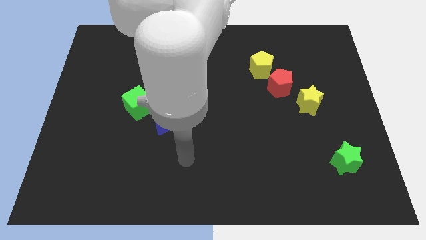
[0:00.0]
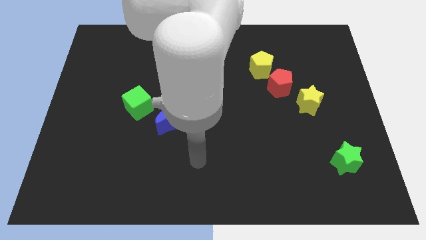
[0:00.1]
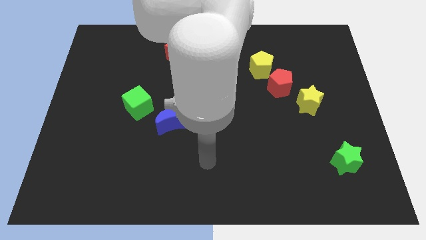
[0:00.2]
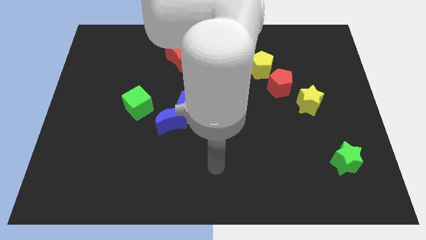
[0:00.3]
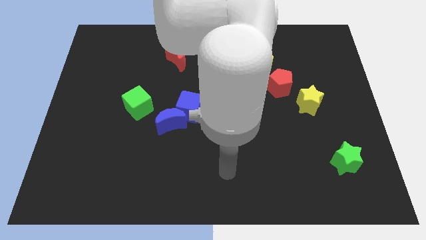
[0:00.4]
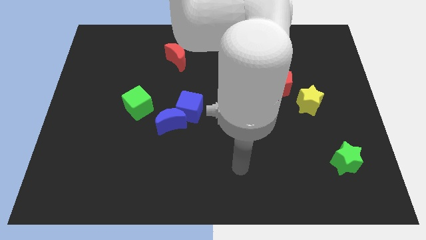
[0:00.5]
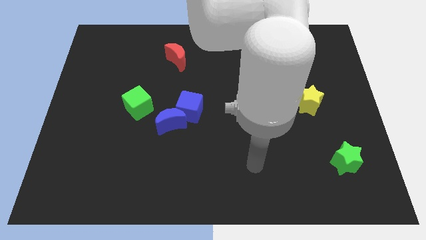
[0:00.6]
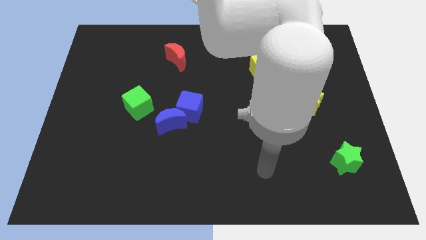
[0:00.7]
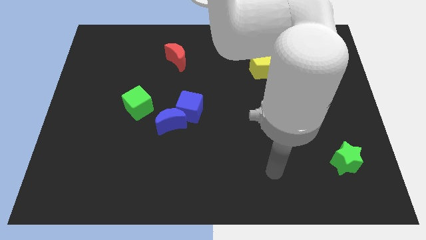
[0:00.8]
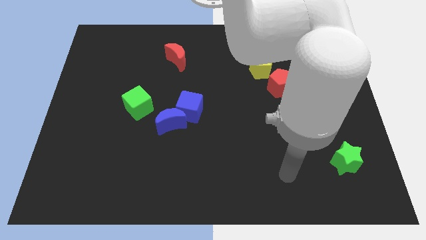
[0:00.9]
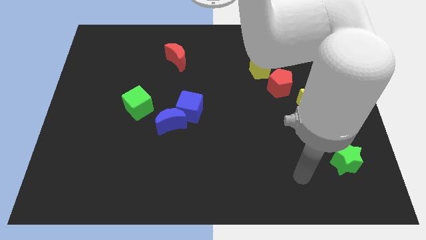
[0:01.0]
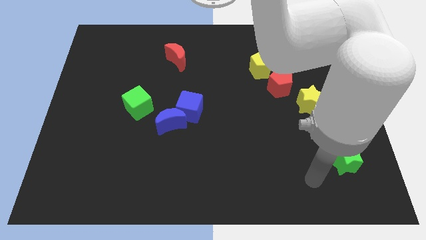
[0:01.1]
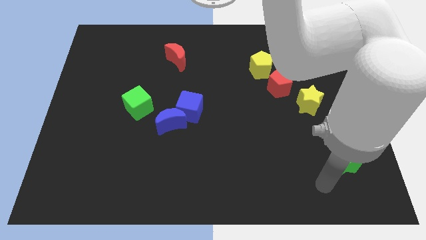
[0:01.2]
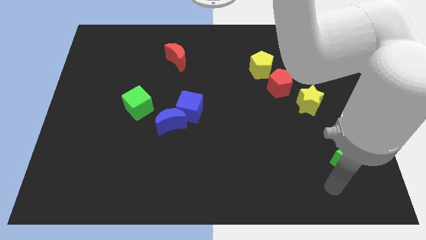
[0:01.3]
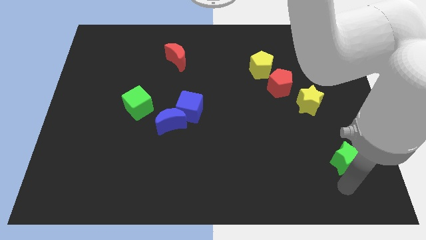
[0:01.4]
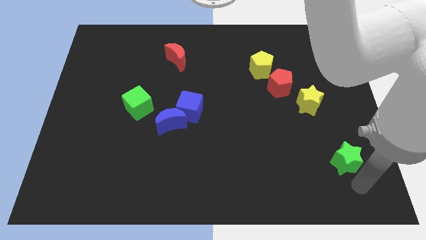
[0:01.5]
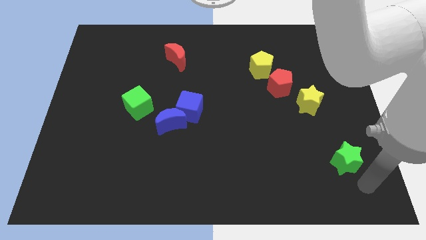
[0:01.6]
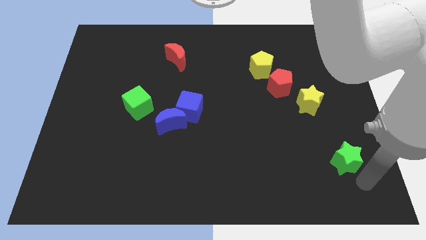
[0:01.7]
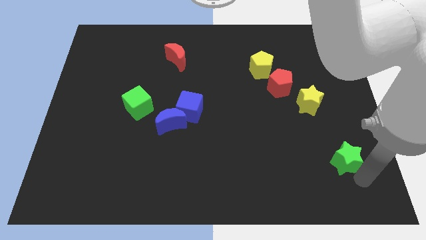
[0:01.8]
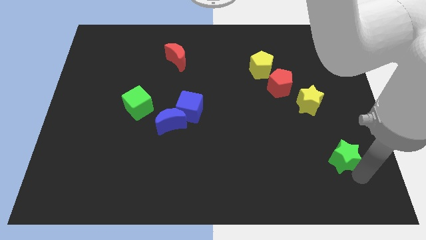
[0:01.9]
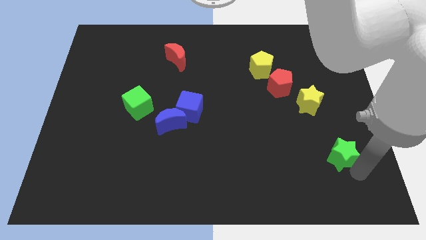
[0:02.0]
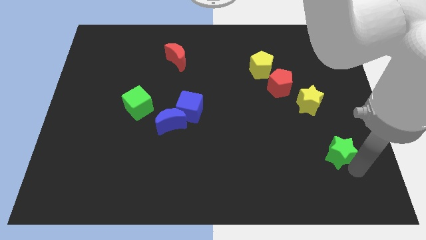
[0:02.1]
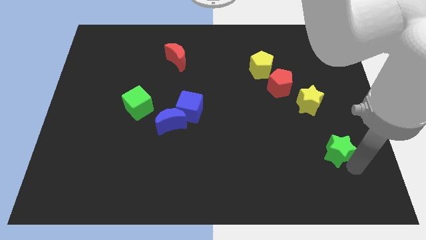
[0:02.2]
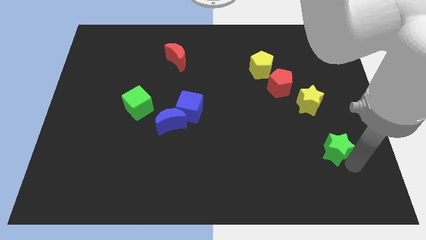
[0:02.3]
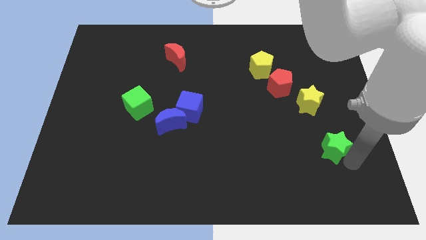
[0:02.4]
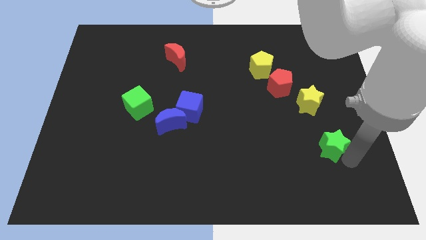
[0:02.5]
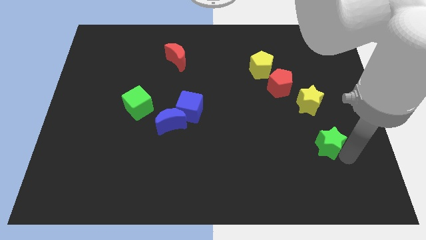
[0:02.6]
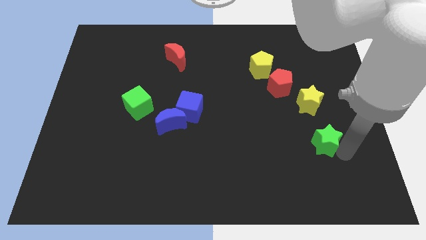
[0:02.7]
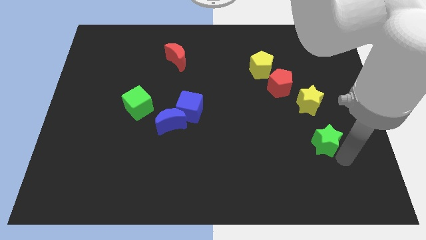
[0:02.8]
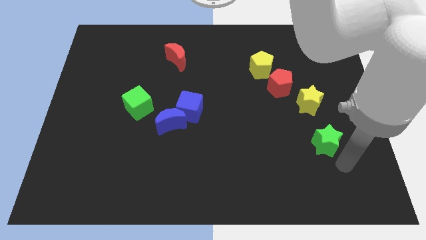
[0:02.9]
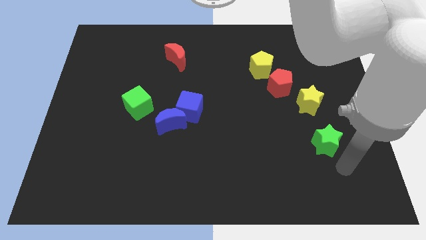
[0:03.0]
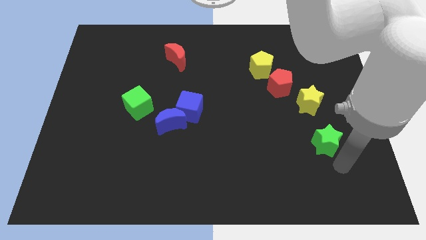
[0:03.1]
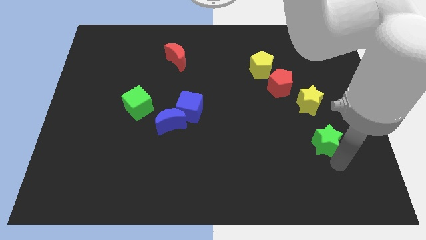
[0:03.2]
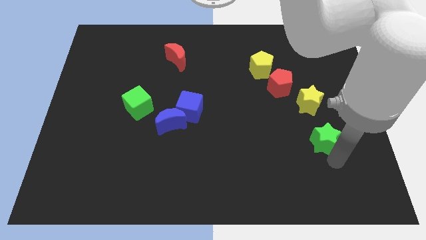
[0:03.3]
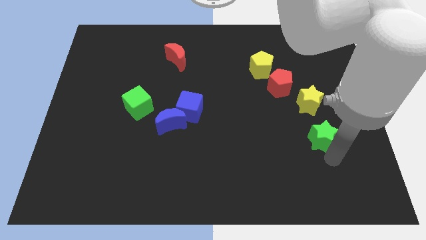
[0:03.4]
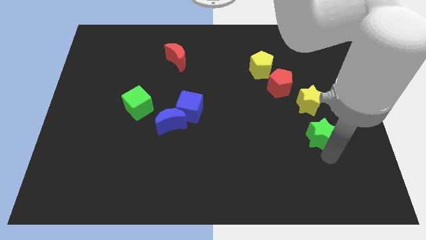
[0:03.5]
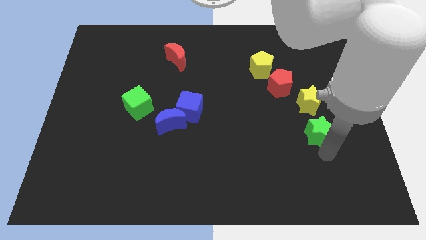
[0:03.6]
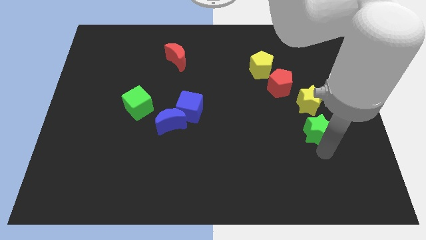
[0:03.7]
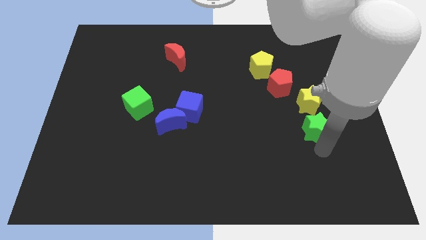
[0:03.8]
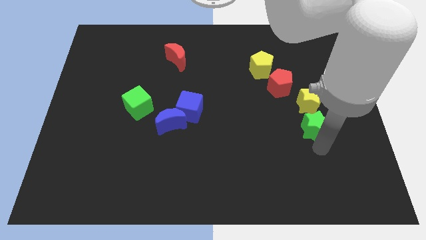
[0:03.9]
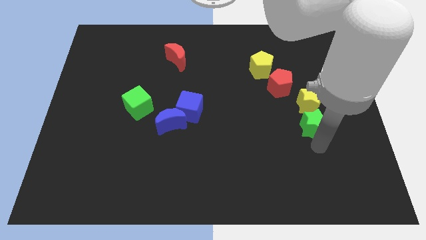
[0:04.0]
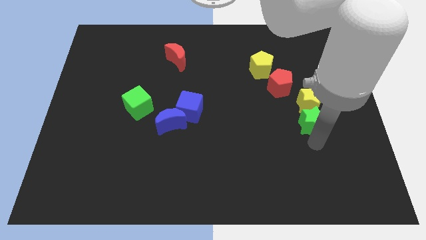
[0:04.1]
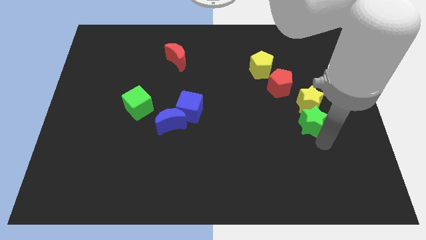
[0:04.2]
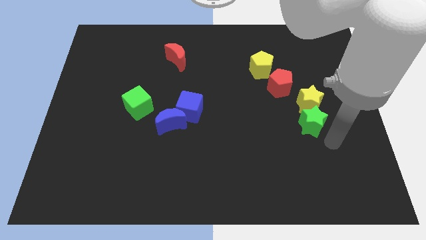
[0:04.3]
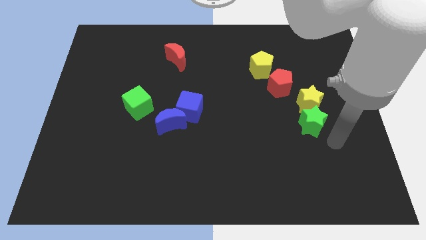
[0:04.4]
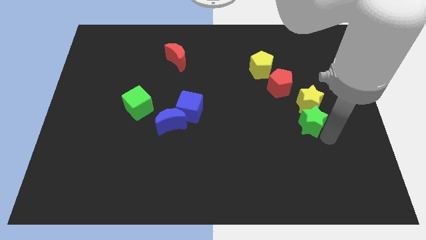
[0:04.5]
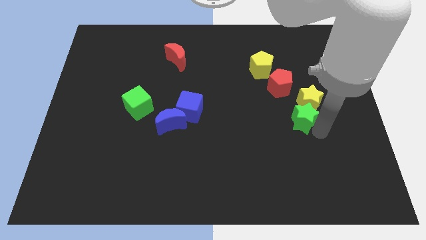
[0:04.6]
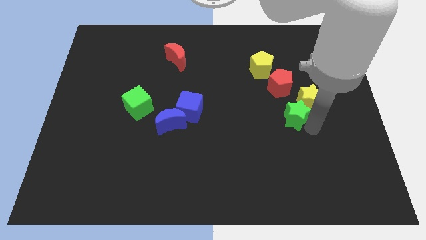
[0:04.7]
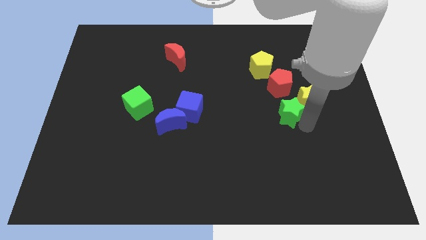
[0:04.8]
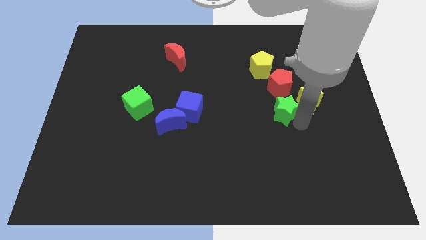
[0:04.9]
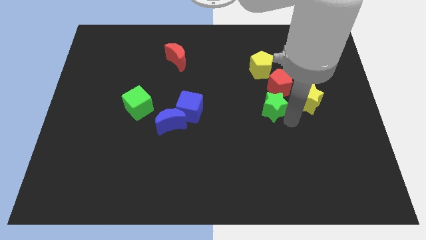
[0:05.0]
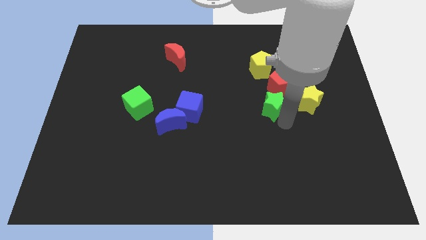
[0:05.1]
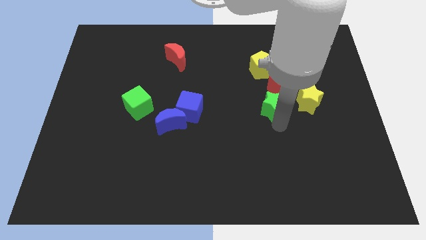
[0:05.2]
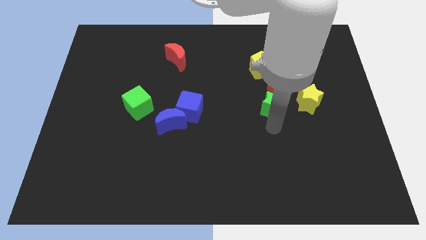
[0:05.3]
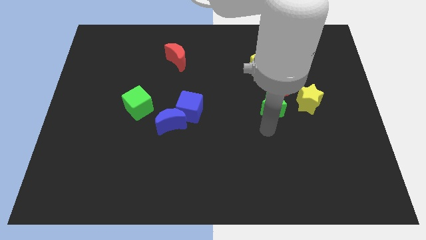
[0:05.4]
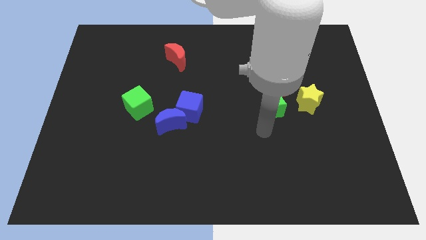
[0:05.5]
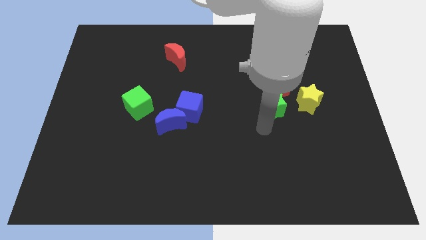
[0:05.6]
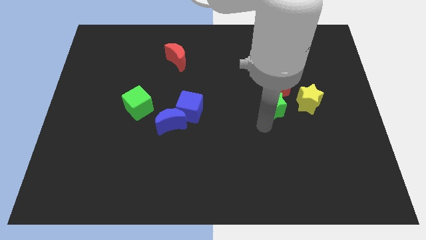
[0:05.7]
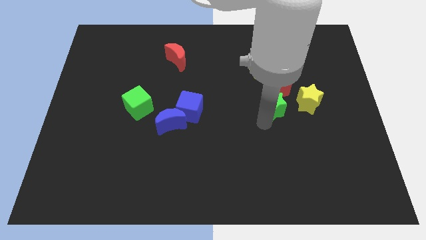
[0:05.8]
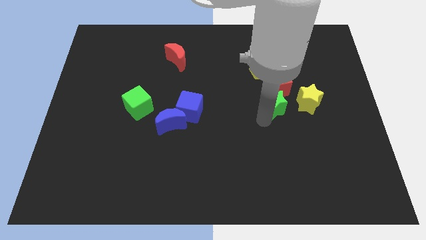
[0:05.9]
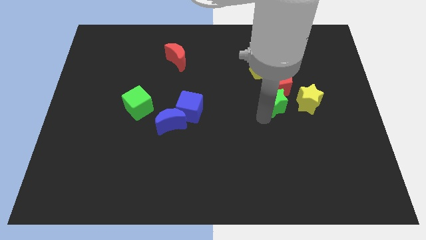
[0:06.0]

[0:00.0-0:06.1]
push the green star to the red pentagon

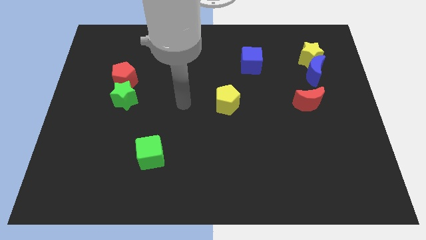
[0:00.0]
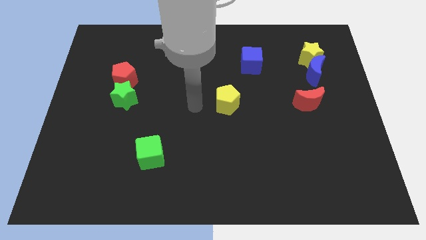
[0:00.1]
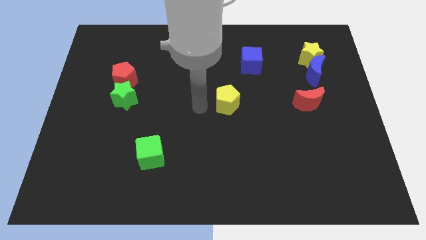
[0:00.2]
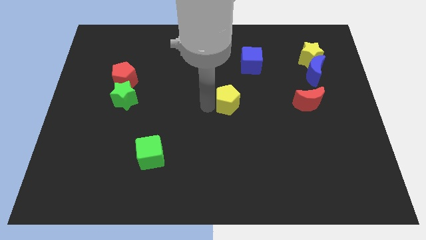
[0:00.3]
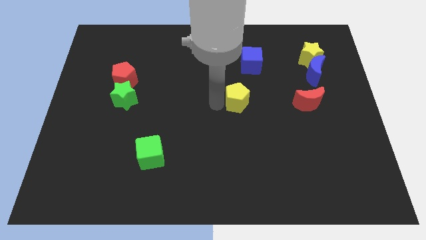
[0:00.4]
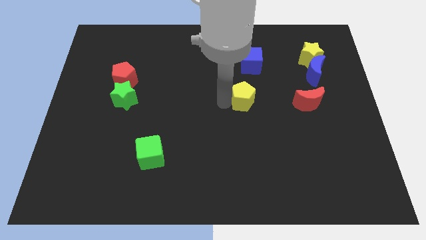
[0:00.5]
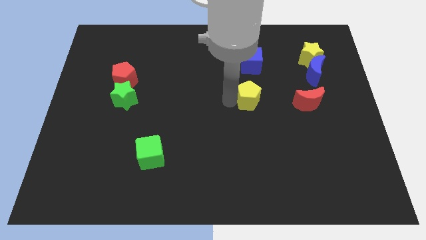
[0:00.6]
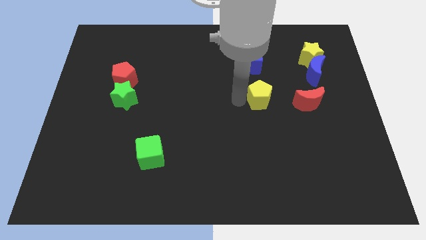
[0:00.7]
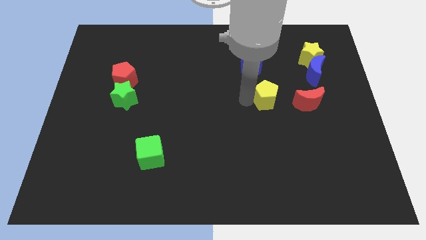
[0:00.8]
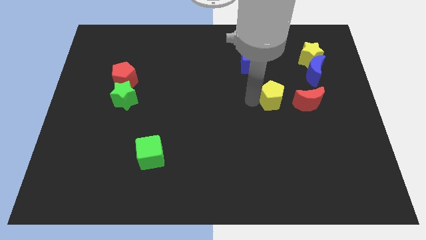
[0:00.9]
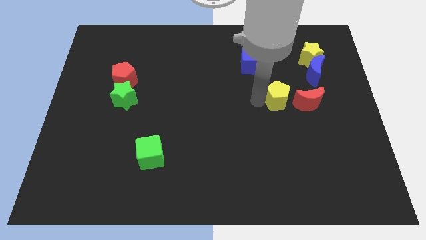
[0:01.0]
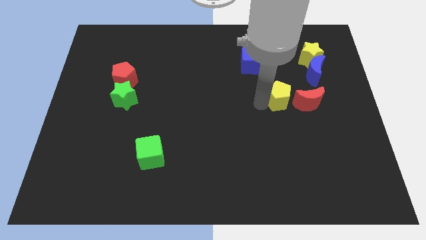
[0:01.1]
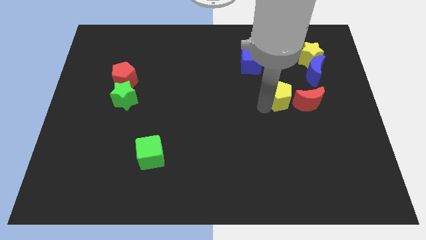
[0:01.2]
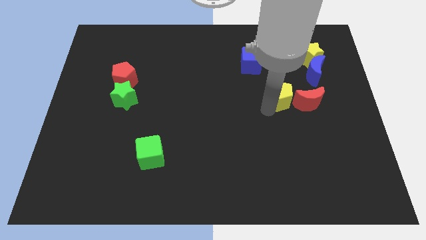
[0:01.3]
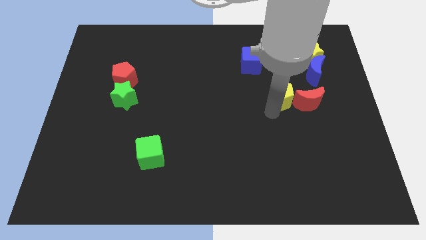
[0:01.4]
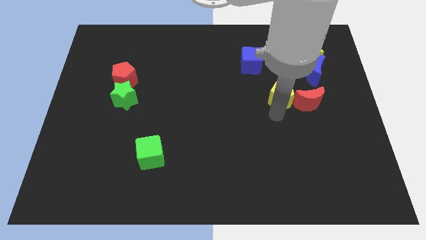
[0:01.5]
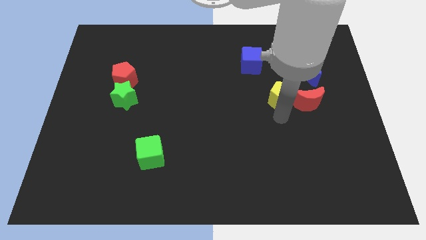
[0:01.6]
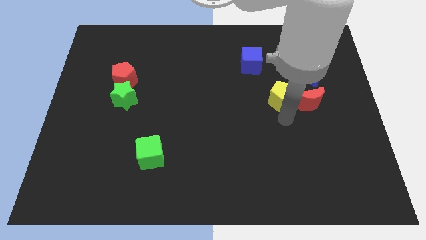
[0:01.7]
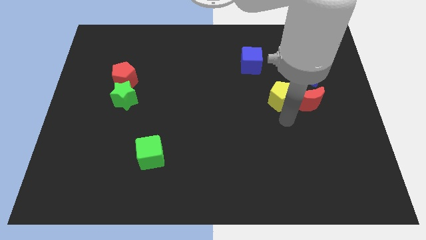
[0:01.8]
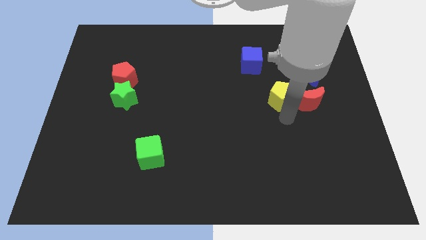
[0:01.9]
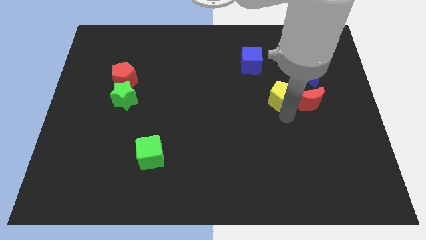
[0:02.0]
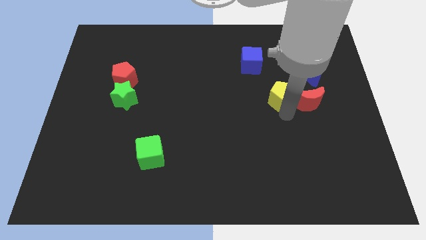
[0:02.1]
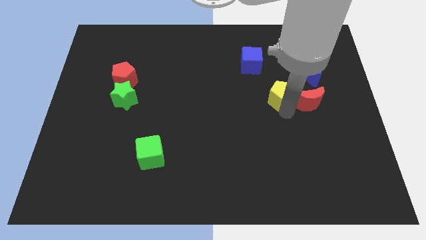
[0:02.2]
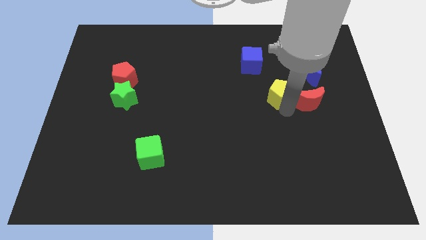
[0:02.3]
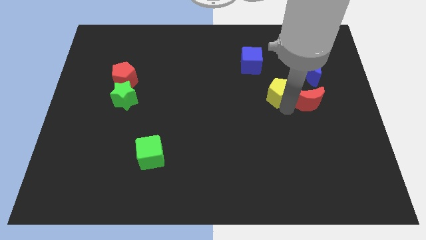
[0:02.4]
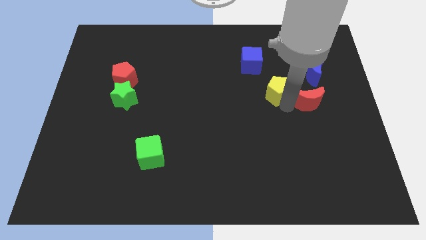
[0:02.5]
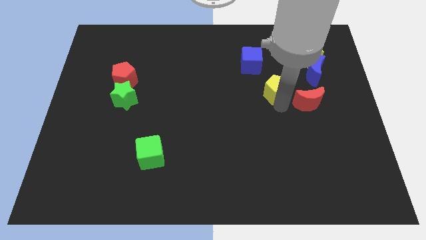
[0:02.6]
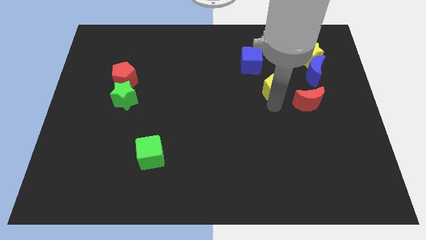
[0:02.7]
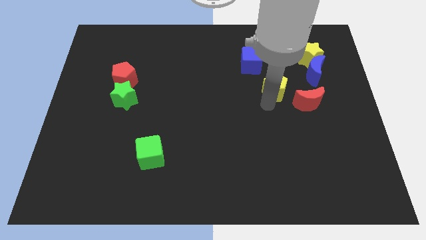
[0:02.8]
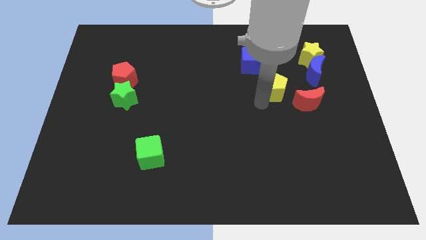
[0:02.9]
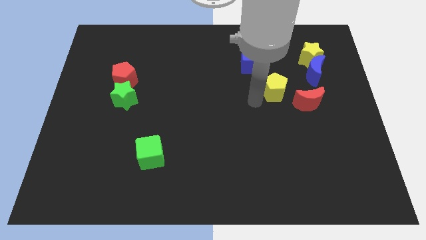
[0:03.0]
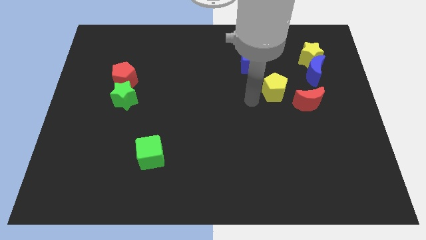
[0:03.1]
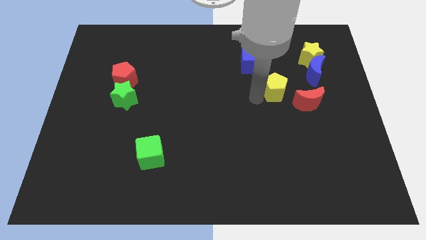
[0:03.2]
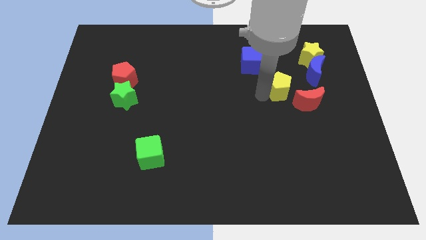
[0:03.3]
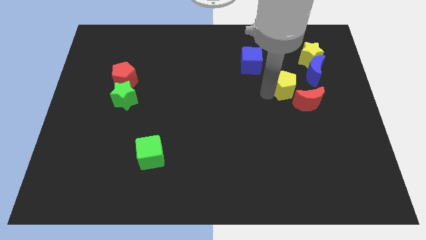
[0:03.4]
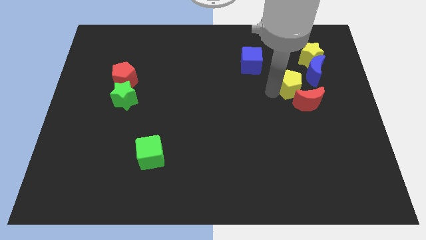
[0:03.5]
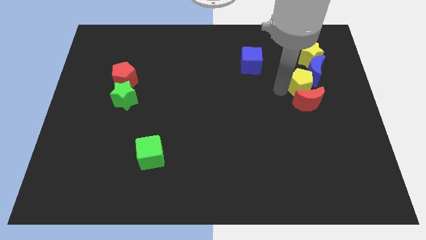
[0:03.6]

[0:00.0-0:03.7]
move the yellow pentagon close to the blue moon
